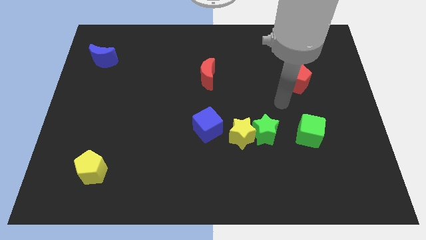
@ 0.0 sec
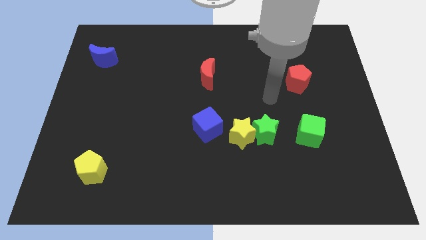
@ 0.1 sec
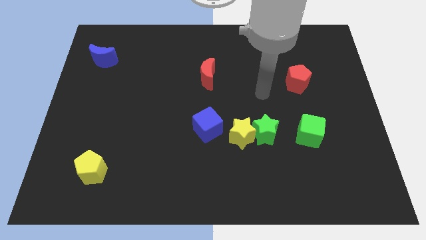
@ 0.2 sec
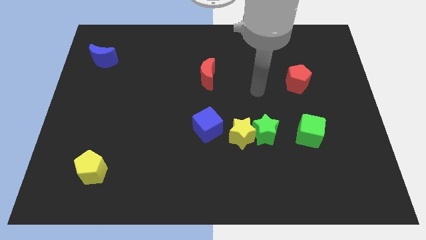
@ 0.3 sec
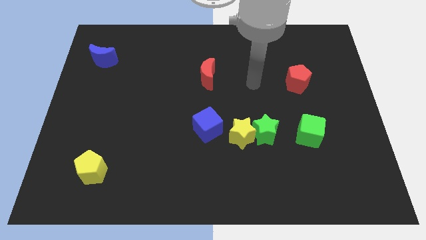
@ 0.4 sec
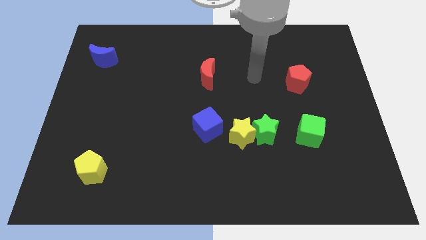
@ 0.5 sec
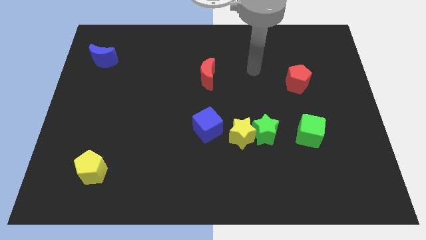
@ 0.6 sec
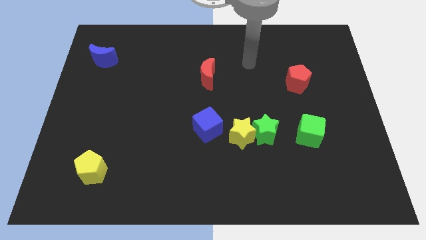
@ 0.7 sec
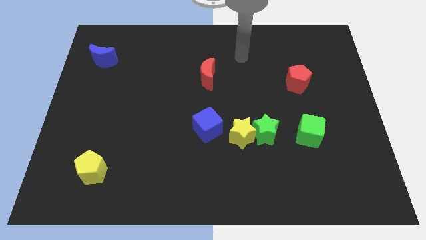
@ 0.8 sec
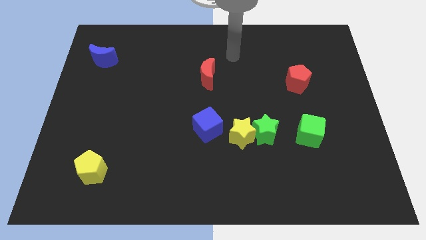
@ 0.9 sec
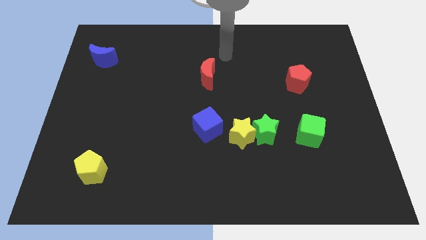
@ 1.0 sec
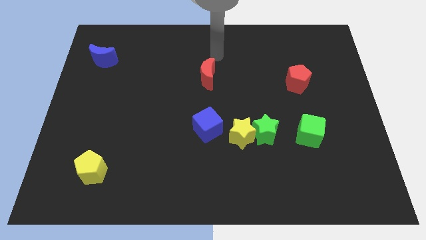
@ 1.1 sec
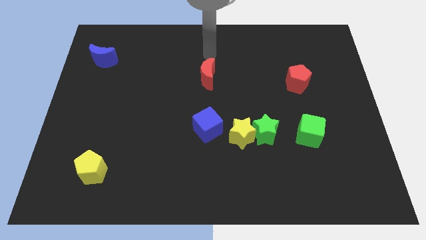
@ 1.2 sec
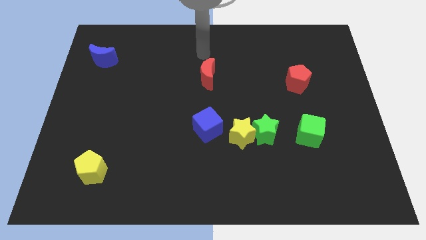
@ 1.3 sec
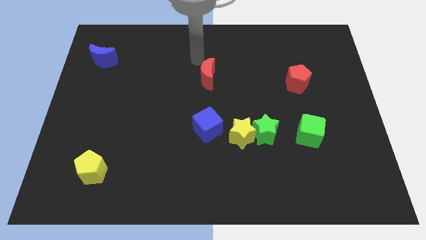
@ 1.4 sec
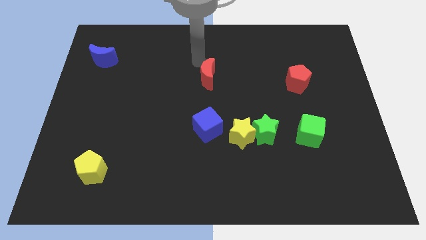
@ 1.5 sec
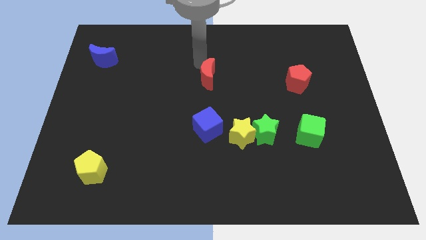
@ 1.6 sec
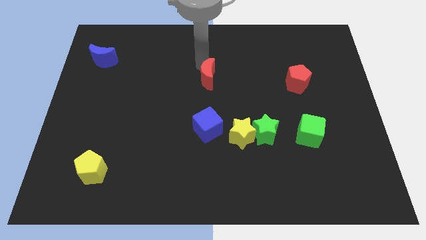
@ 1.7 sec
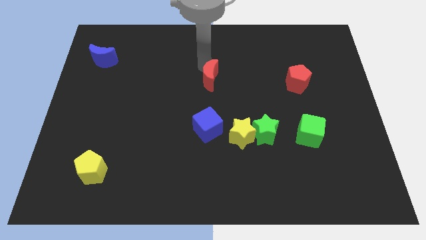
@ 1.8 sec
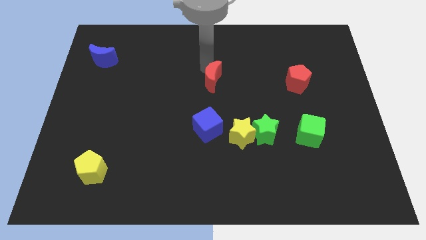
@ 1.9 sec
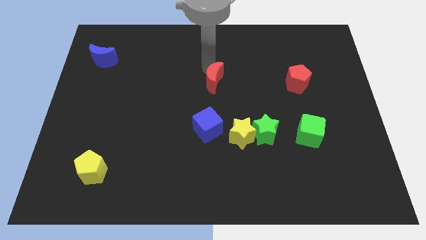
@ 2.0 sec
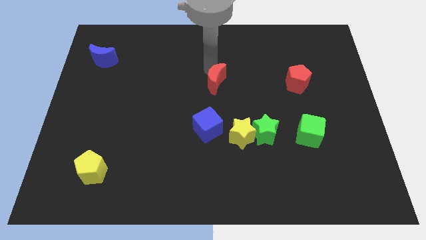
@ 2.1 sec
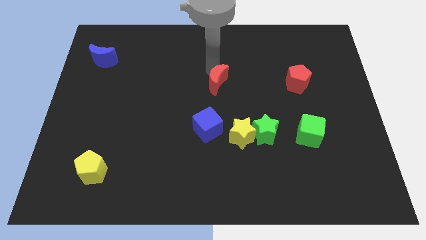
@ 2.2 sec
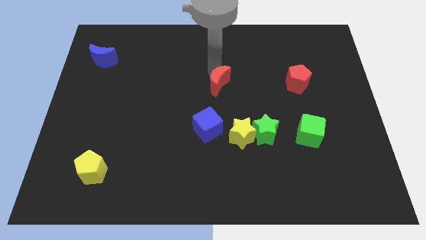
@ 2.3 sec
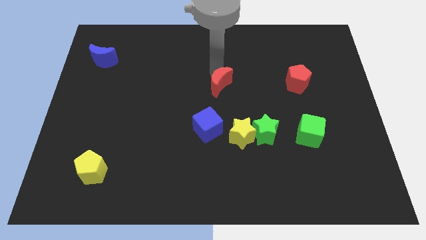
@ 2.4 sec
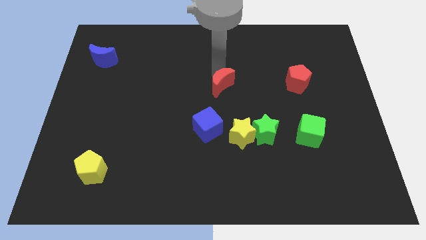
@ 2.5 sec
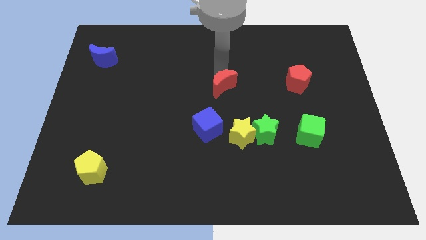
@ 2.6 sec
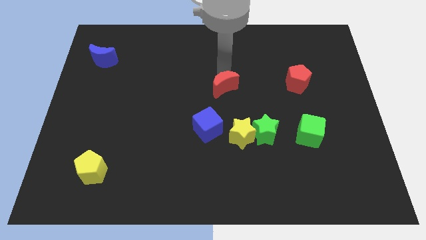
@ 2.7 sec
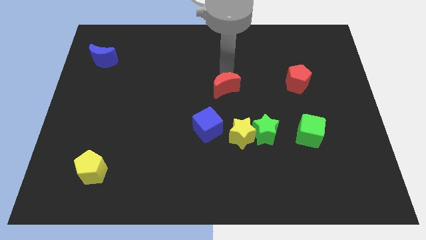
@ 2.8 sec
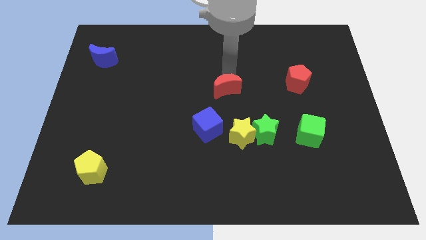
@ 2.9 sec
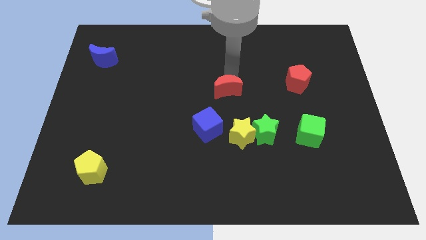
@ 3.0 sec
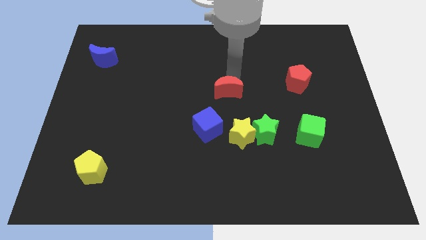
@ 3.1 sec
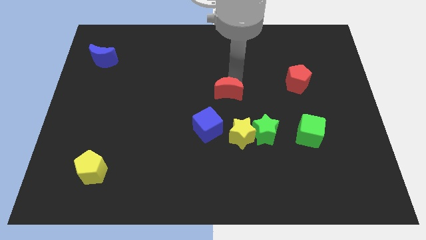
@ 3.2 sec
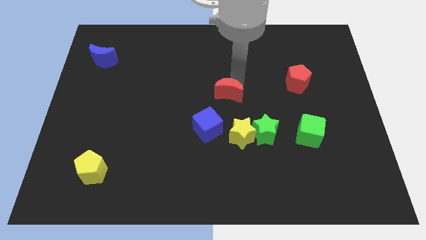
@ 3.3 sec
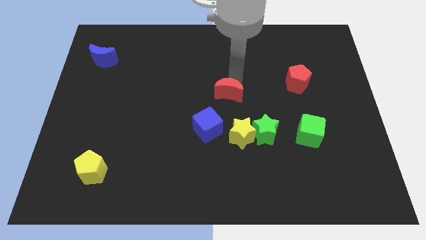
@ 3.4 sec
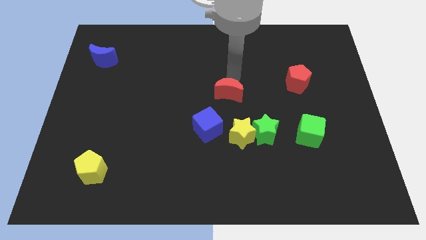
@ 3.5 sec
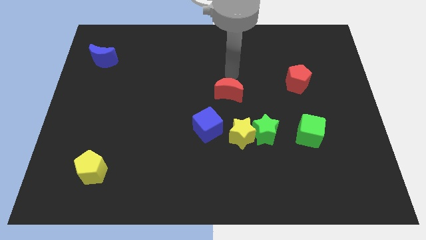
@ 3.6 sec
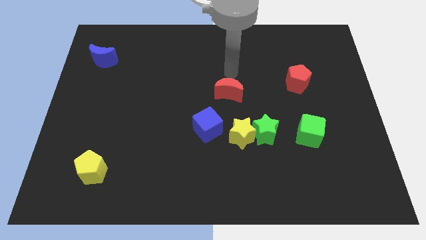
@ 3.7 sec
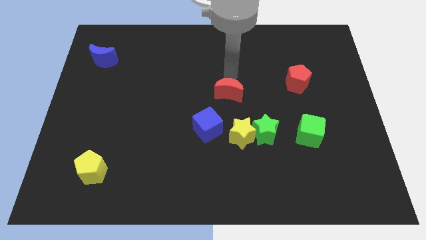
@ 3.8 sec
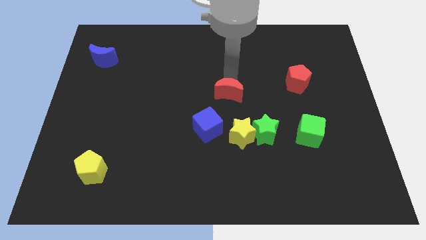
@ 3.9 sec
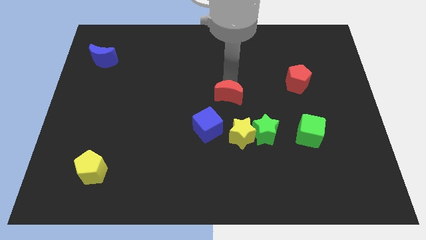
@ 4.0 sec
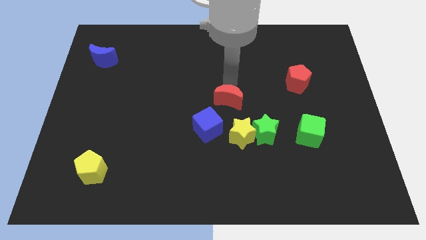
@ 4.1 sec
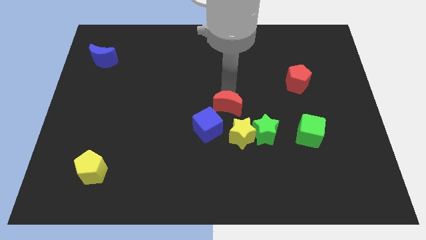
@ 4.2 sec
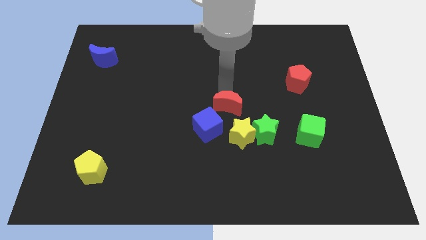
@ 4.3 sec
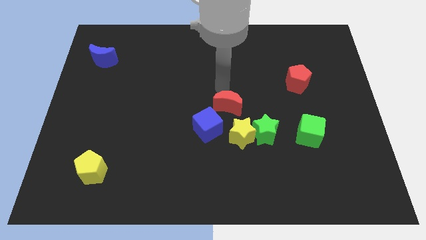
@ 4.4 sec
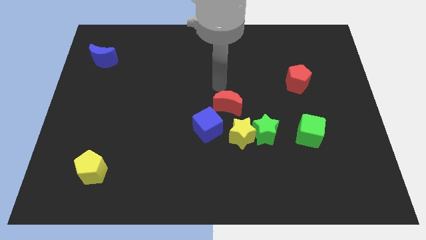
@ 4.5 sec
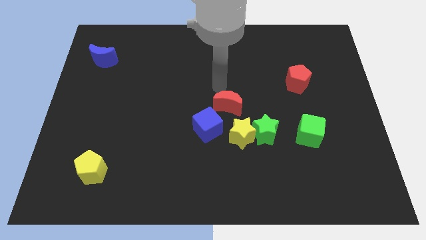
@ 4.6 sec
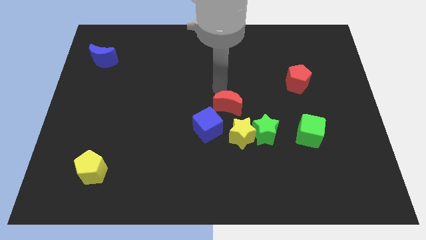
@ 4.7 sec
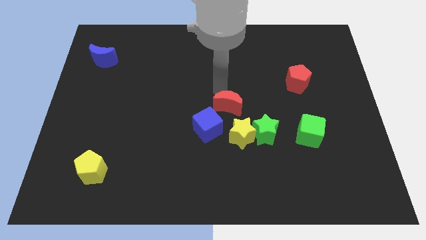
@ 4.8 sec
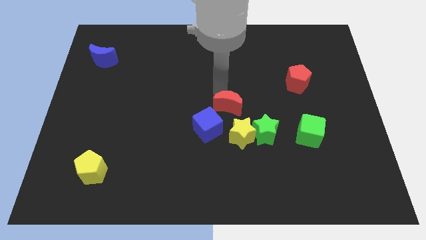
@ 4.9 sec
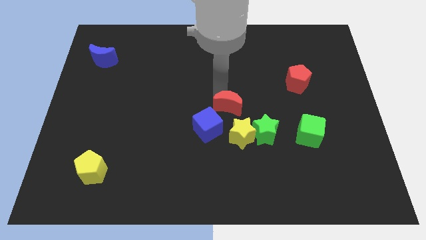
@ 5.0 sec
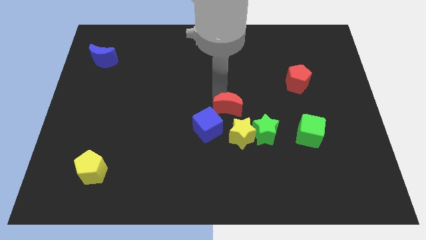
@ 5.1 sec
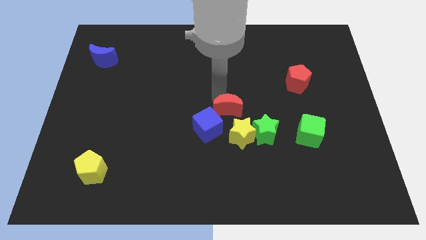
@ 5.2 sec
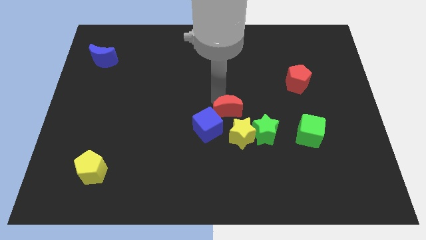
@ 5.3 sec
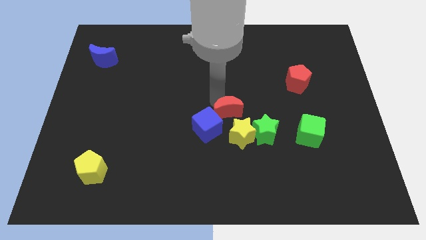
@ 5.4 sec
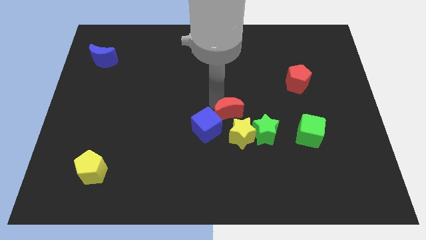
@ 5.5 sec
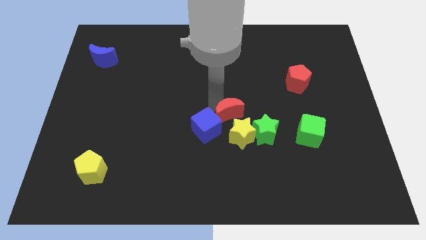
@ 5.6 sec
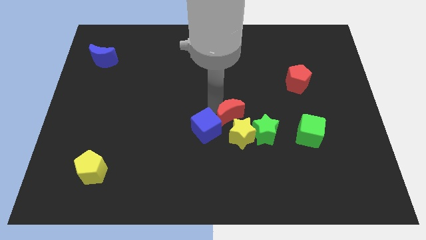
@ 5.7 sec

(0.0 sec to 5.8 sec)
push the red moon next to the yellow star

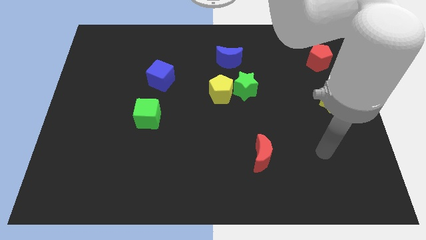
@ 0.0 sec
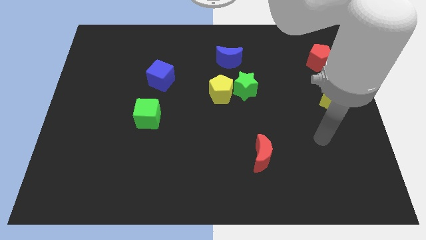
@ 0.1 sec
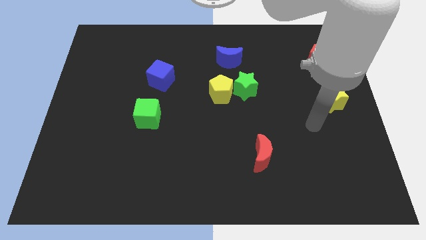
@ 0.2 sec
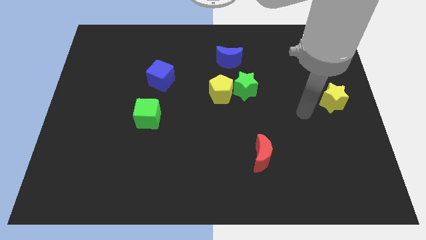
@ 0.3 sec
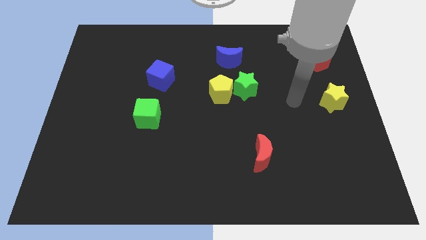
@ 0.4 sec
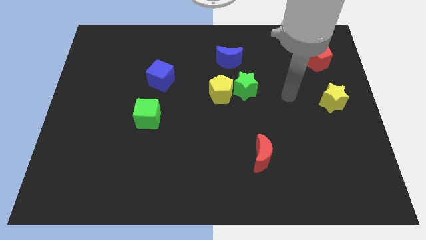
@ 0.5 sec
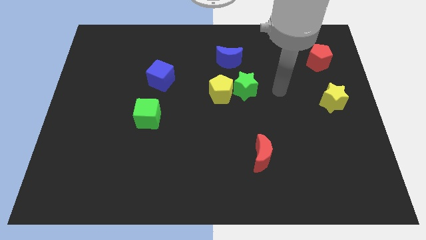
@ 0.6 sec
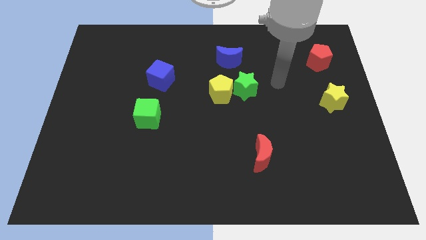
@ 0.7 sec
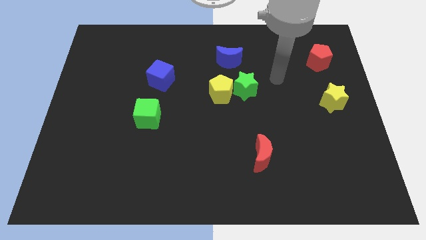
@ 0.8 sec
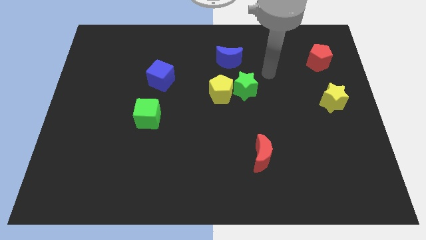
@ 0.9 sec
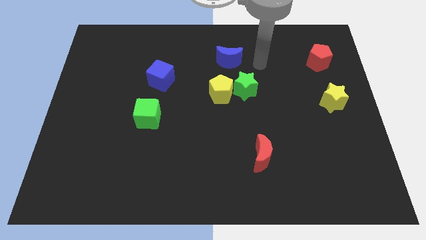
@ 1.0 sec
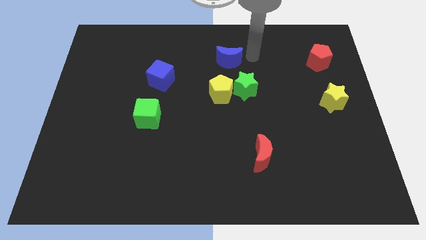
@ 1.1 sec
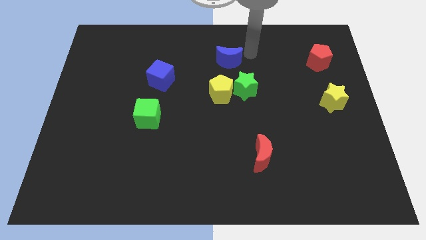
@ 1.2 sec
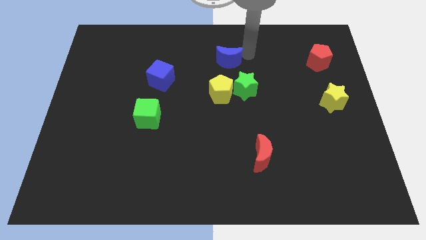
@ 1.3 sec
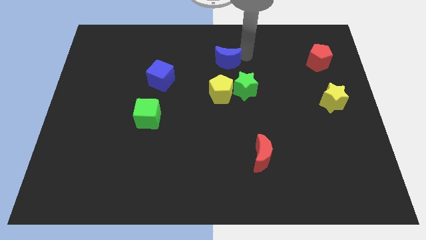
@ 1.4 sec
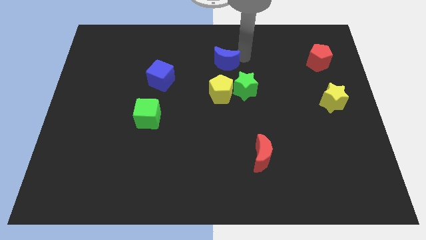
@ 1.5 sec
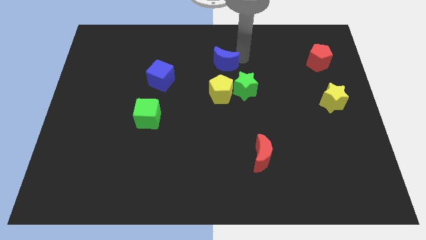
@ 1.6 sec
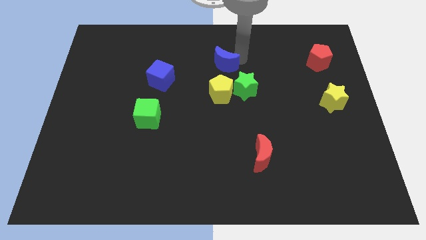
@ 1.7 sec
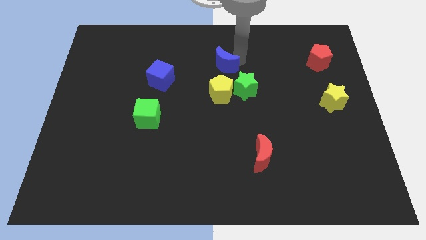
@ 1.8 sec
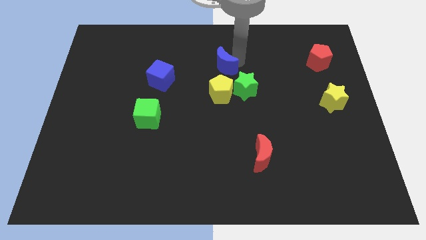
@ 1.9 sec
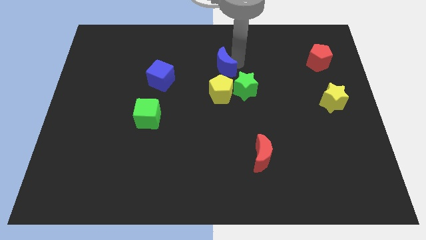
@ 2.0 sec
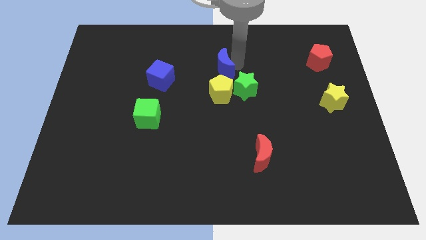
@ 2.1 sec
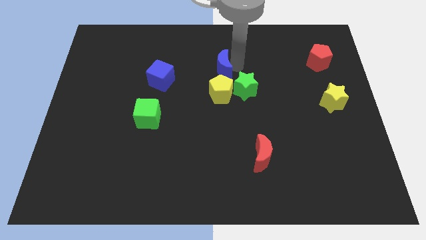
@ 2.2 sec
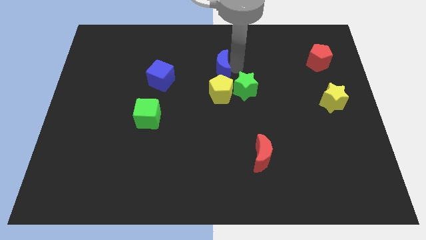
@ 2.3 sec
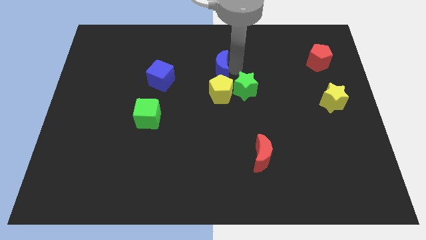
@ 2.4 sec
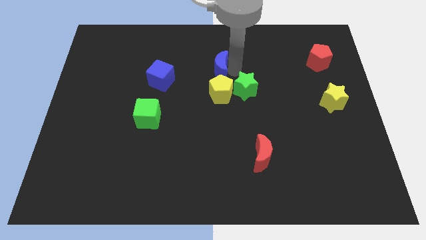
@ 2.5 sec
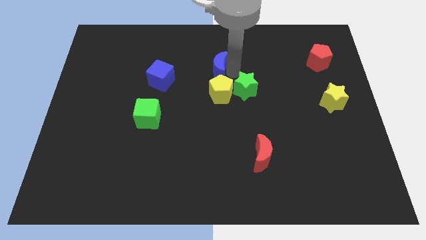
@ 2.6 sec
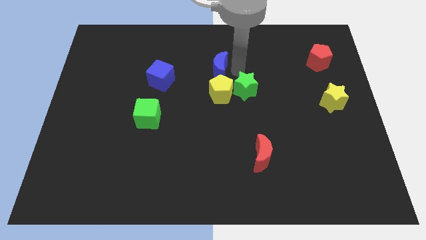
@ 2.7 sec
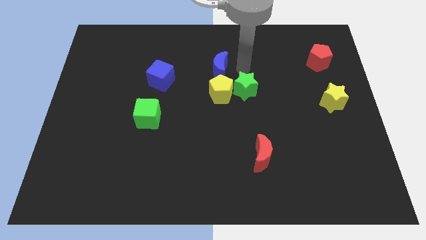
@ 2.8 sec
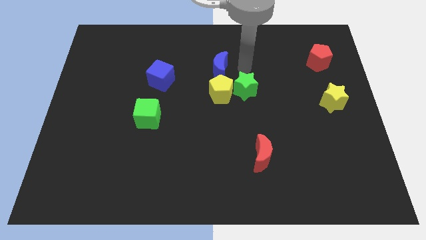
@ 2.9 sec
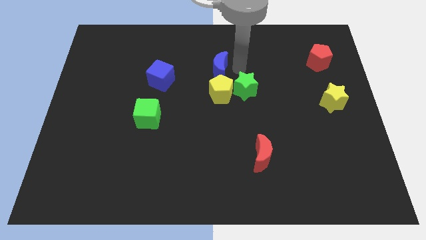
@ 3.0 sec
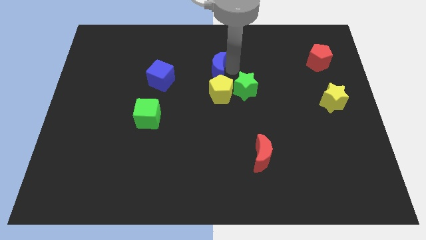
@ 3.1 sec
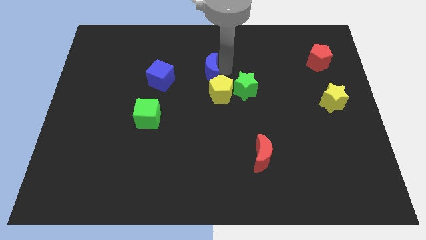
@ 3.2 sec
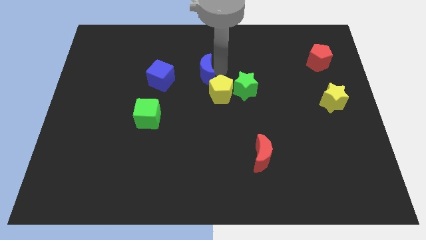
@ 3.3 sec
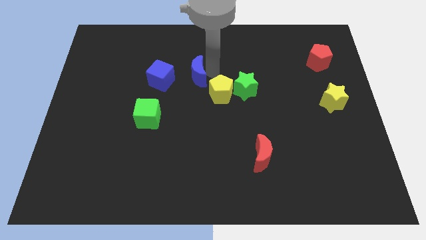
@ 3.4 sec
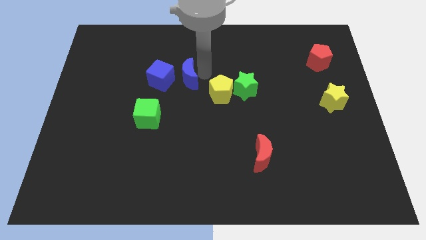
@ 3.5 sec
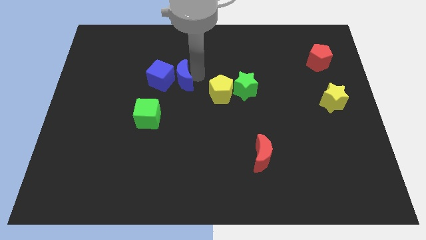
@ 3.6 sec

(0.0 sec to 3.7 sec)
push the blue moon towards the blue cube
